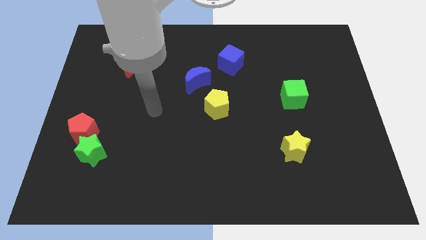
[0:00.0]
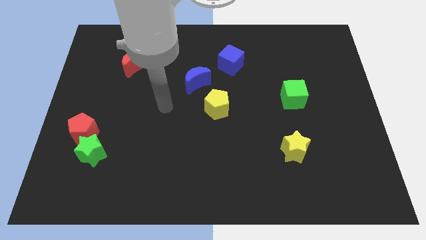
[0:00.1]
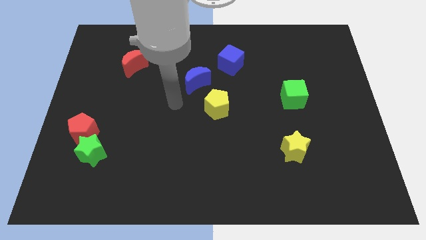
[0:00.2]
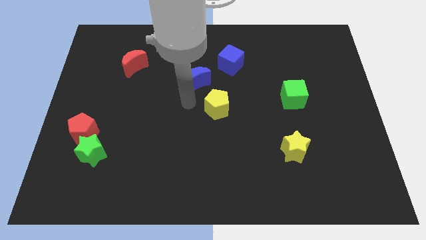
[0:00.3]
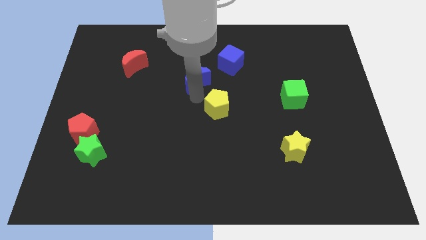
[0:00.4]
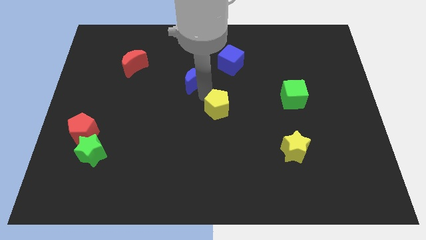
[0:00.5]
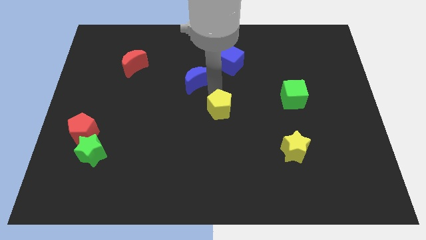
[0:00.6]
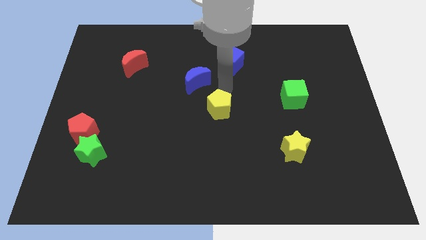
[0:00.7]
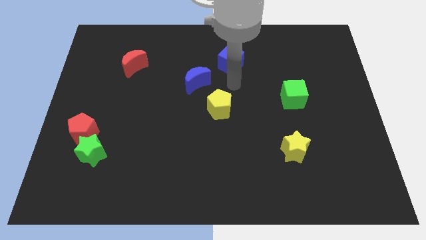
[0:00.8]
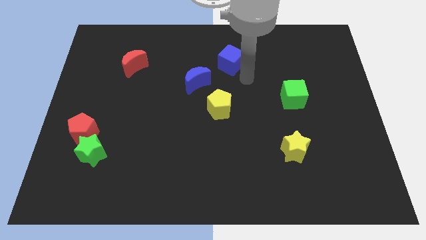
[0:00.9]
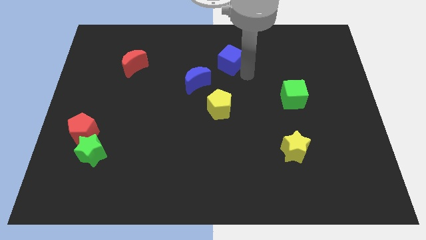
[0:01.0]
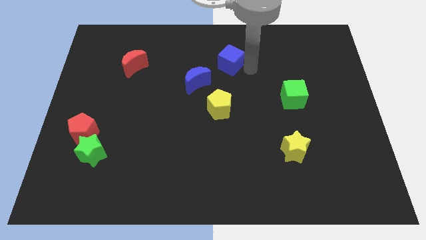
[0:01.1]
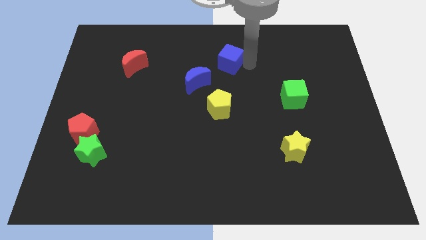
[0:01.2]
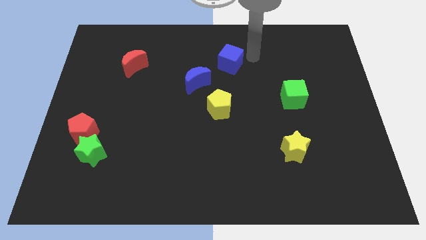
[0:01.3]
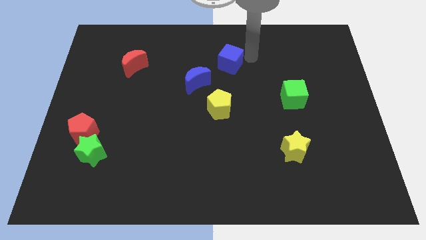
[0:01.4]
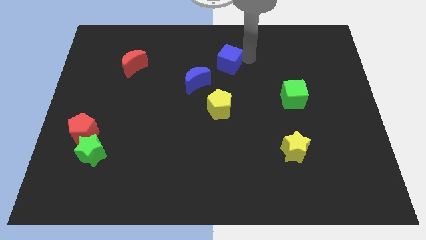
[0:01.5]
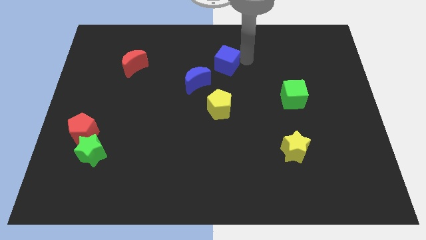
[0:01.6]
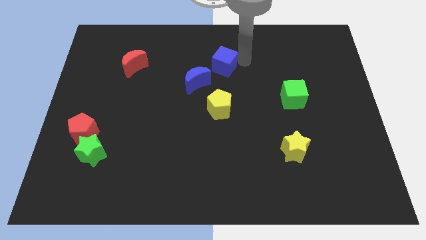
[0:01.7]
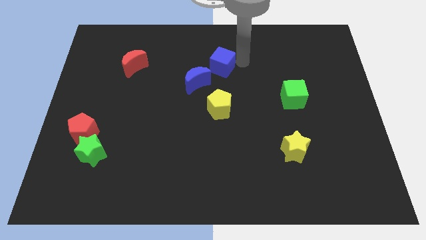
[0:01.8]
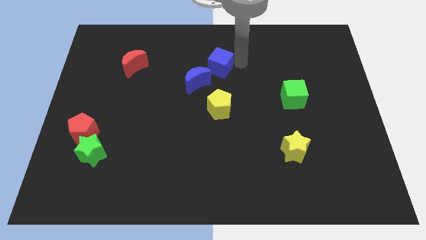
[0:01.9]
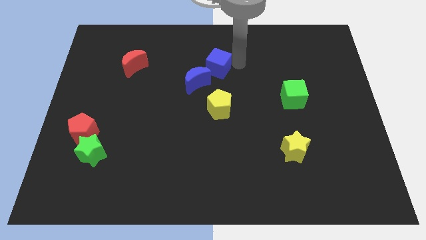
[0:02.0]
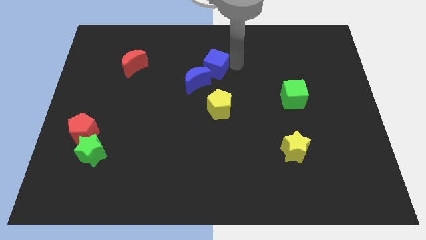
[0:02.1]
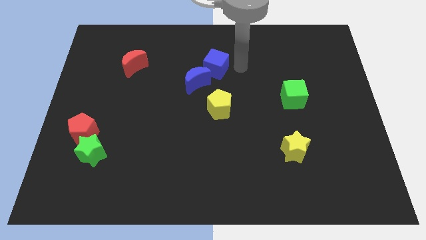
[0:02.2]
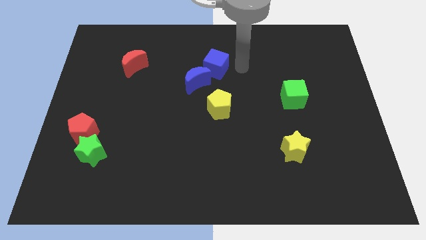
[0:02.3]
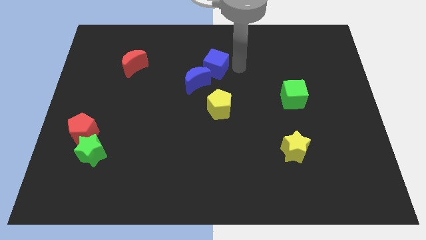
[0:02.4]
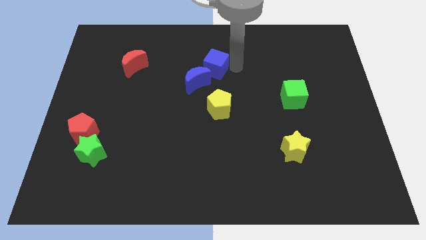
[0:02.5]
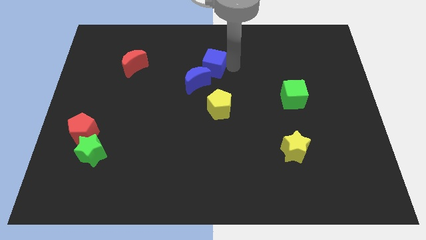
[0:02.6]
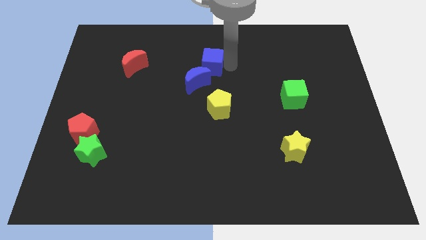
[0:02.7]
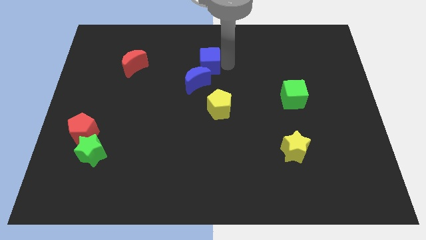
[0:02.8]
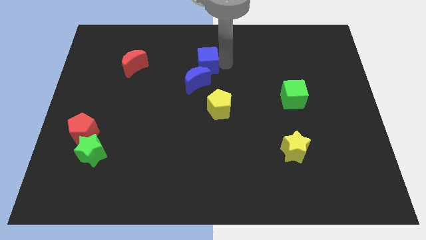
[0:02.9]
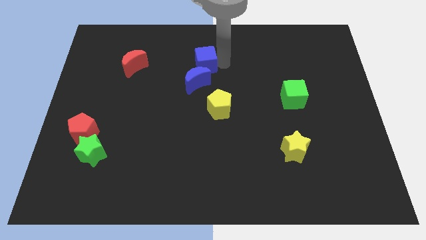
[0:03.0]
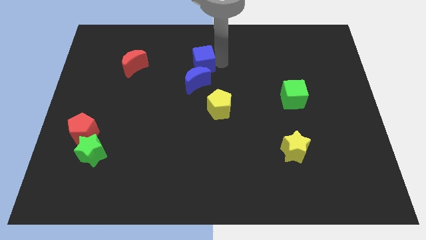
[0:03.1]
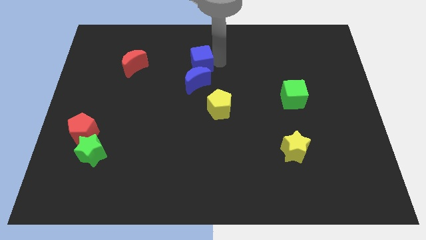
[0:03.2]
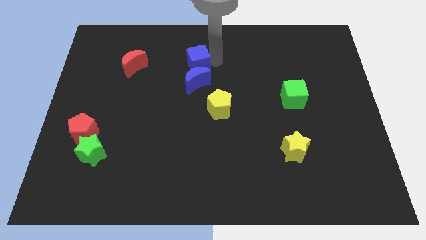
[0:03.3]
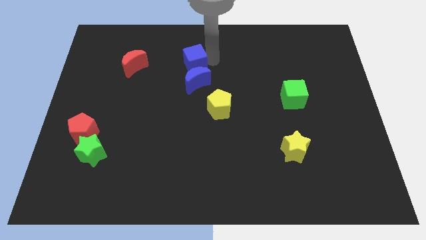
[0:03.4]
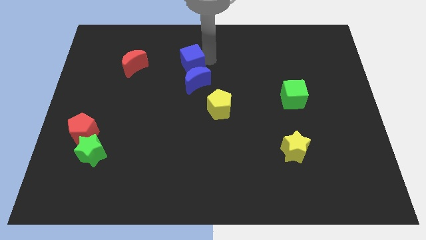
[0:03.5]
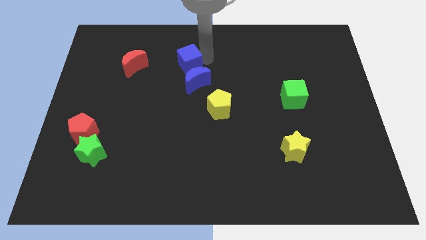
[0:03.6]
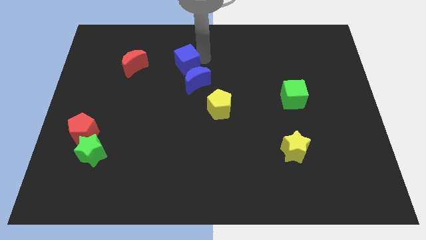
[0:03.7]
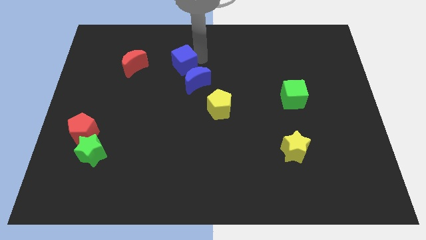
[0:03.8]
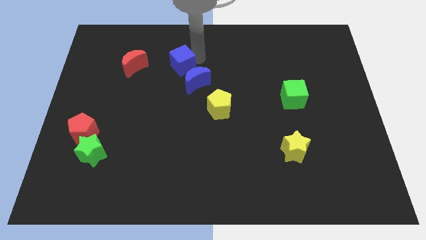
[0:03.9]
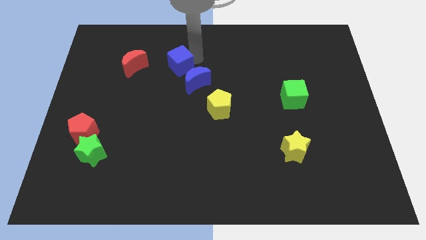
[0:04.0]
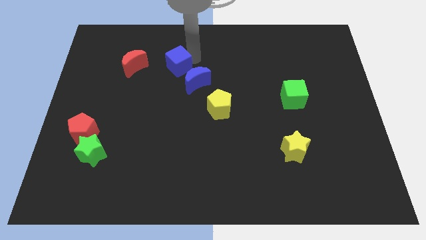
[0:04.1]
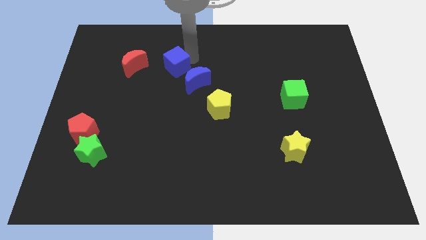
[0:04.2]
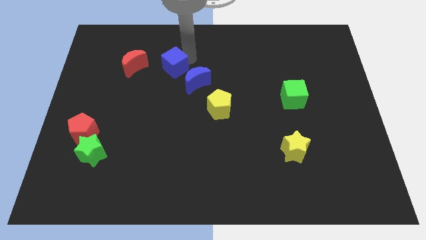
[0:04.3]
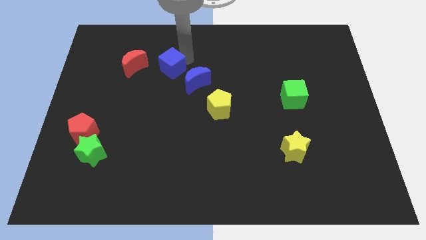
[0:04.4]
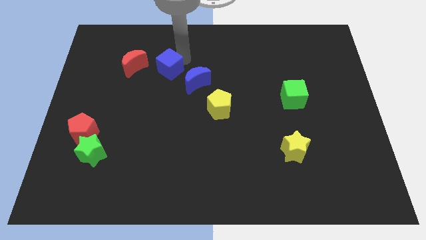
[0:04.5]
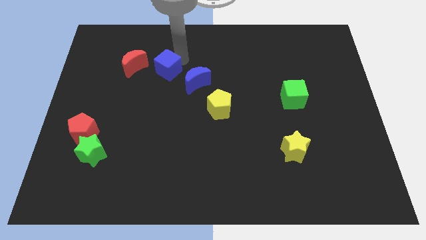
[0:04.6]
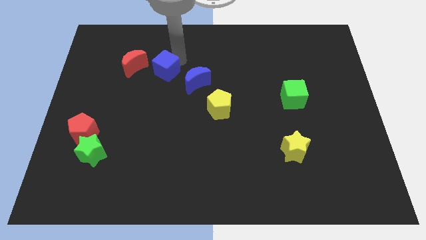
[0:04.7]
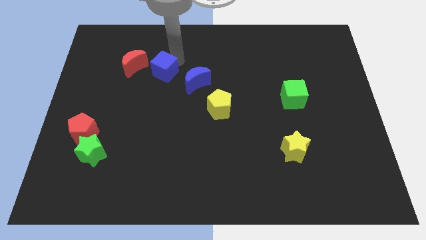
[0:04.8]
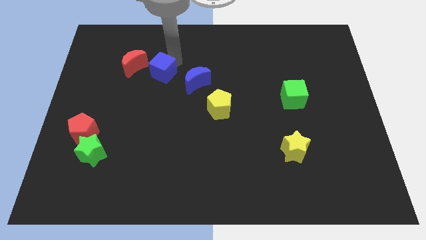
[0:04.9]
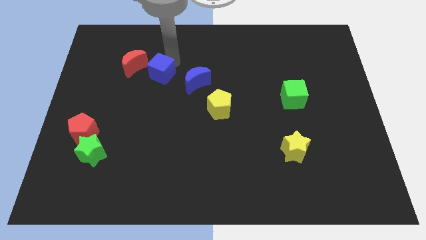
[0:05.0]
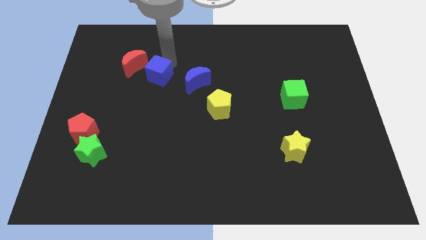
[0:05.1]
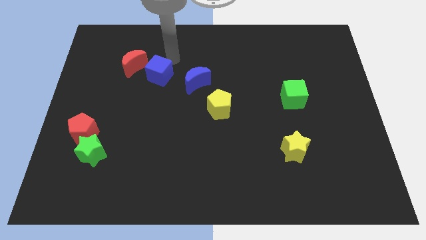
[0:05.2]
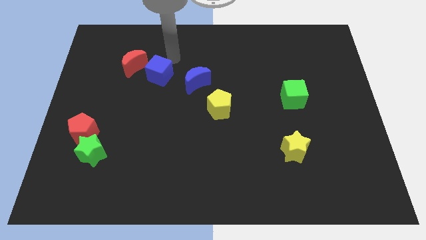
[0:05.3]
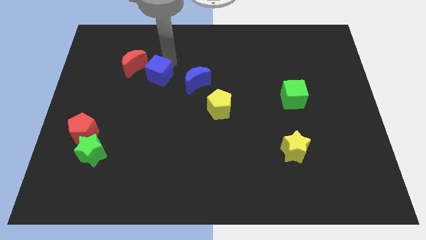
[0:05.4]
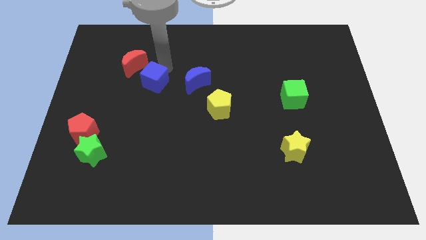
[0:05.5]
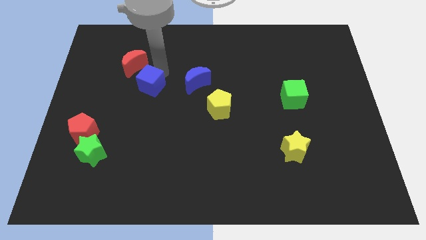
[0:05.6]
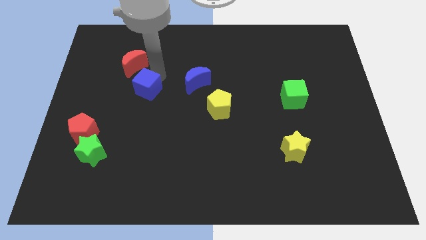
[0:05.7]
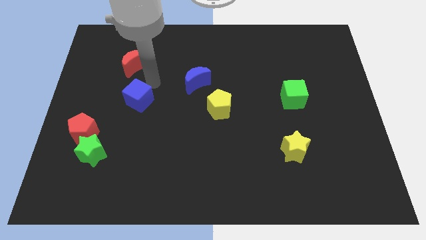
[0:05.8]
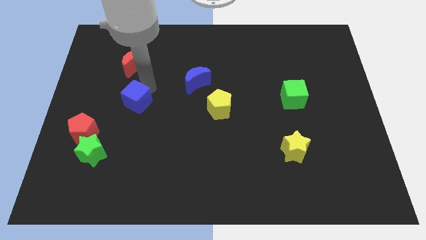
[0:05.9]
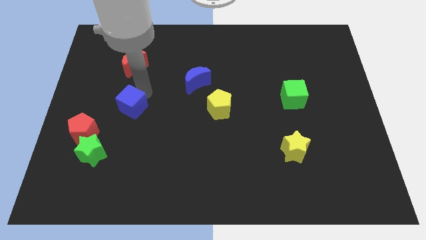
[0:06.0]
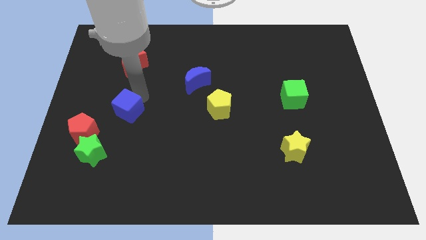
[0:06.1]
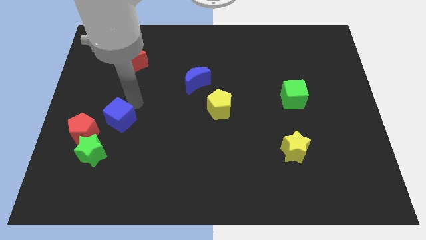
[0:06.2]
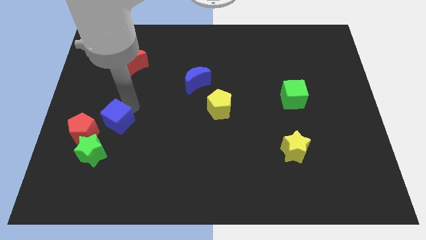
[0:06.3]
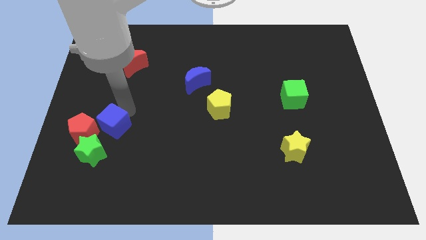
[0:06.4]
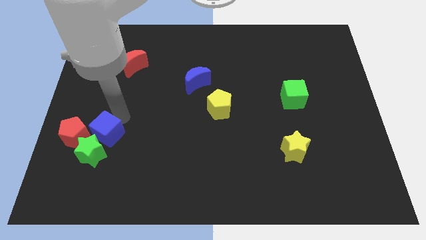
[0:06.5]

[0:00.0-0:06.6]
put the blue cube close to the green star

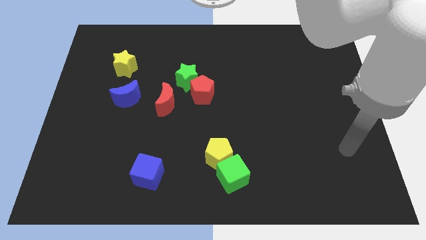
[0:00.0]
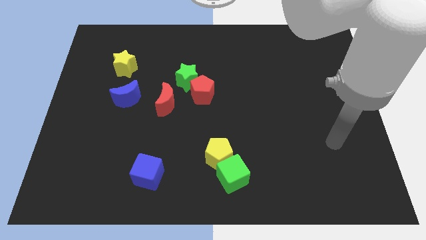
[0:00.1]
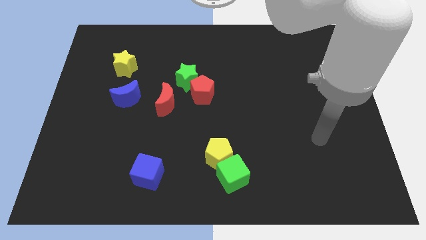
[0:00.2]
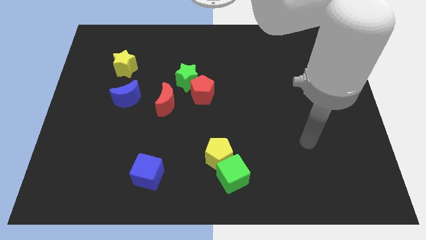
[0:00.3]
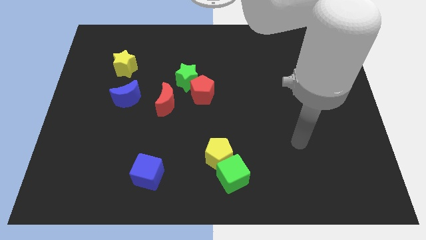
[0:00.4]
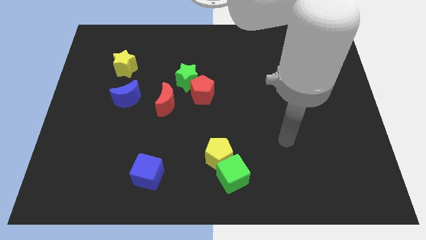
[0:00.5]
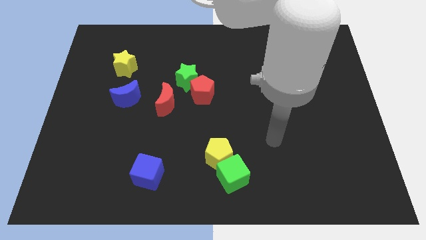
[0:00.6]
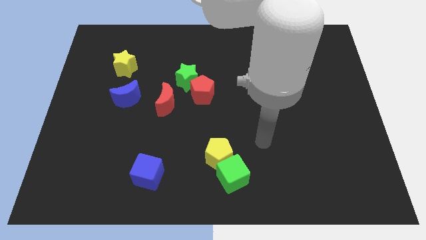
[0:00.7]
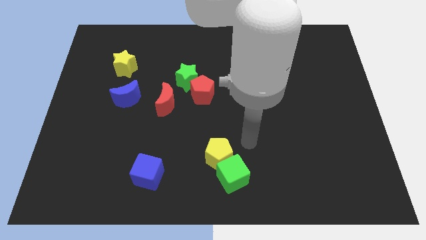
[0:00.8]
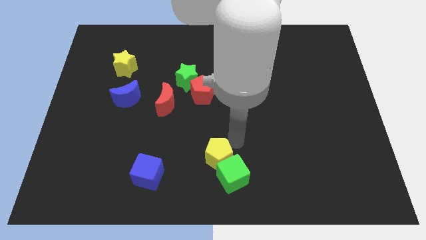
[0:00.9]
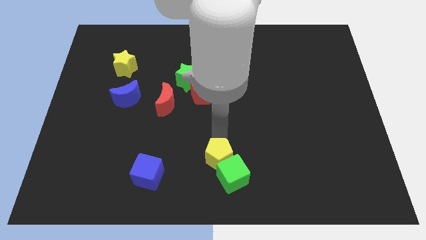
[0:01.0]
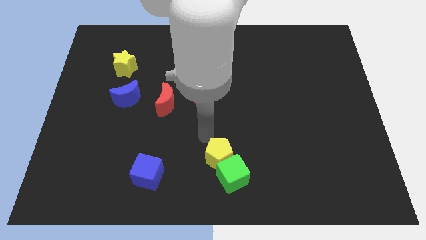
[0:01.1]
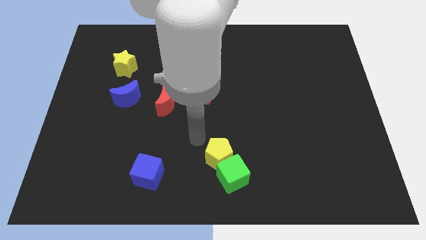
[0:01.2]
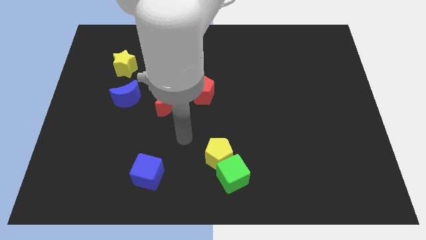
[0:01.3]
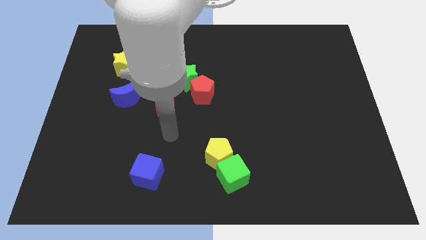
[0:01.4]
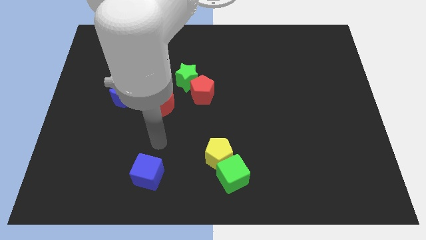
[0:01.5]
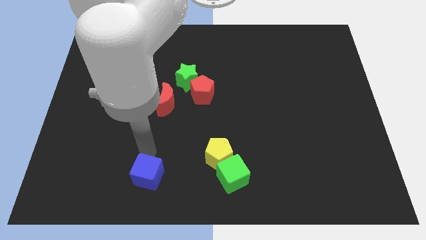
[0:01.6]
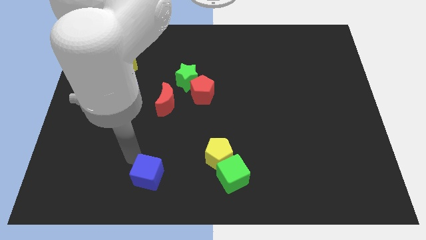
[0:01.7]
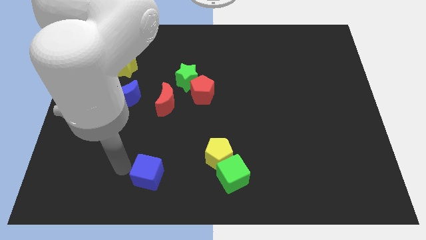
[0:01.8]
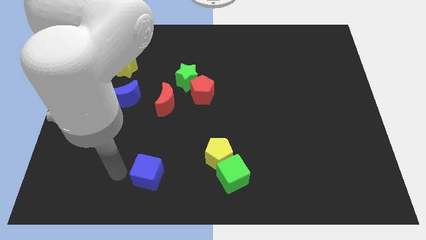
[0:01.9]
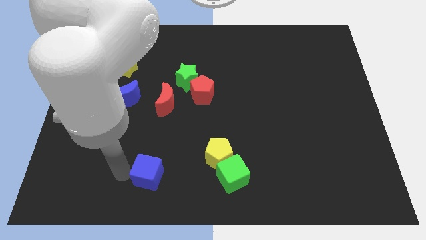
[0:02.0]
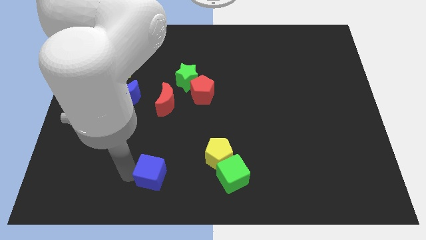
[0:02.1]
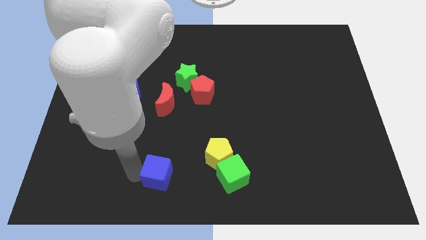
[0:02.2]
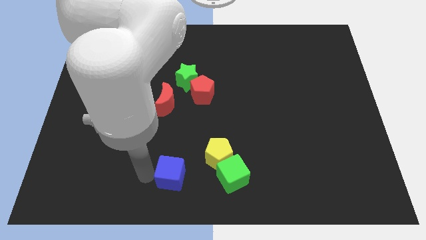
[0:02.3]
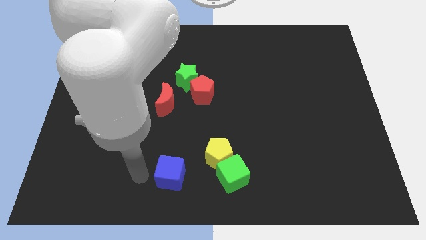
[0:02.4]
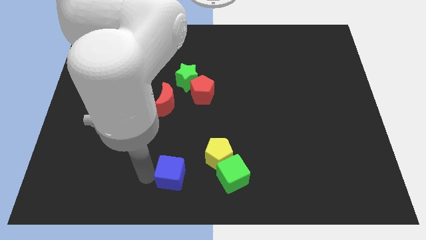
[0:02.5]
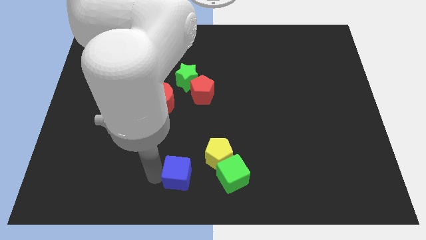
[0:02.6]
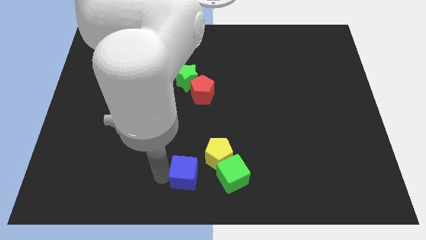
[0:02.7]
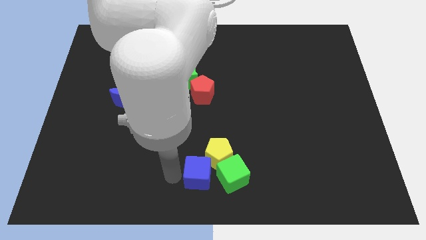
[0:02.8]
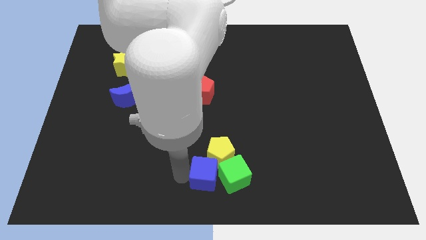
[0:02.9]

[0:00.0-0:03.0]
push the blue cube to the green cube
